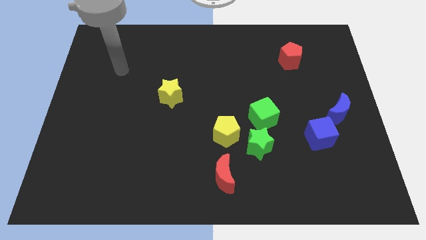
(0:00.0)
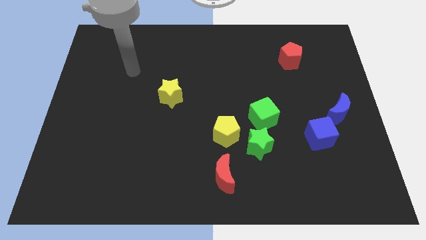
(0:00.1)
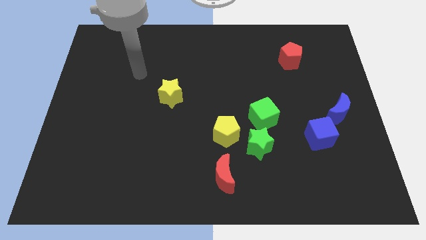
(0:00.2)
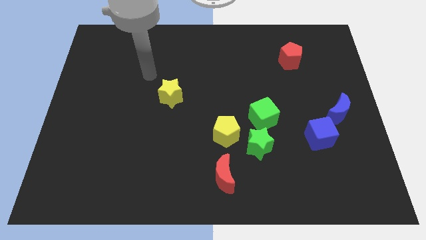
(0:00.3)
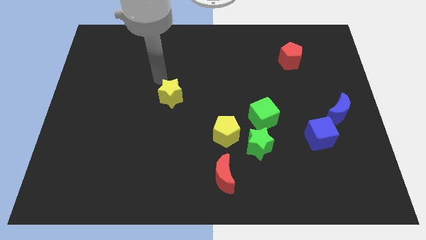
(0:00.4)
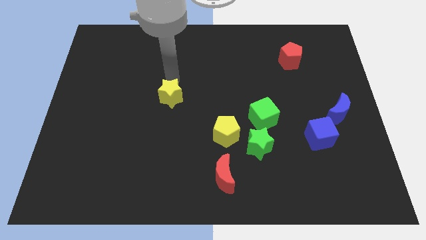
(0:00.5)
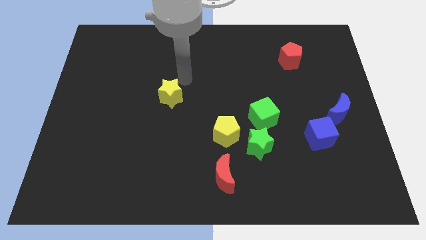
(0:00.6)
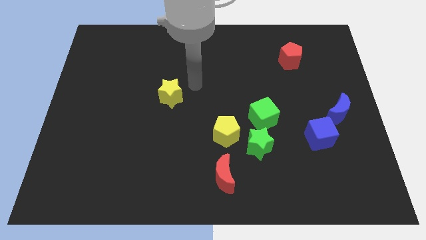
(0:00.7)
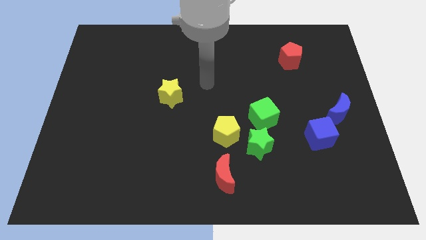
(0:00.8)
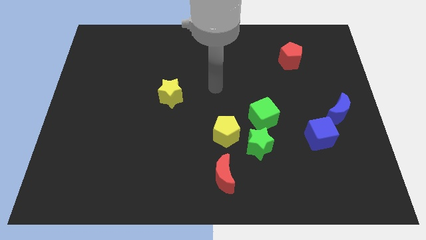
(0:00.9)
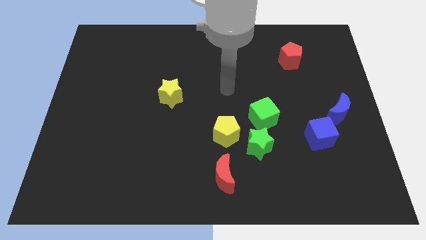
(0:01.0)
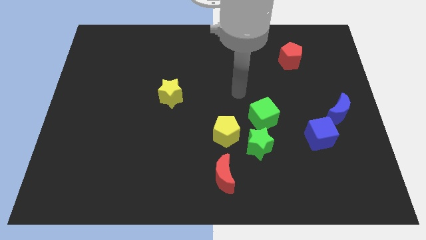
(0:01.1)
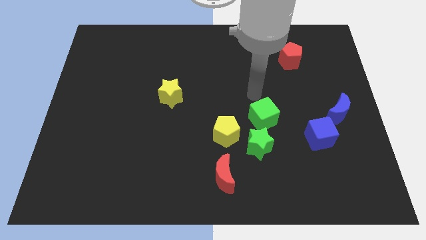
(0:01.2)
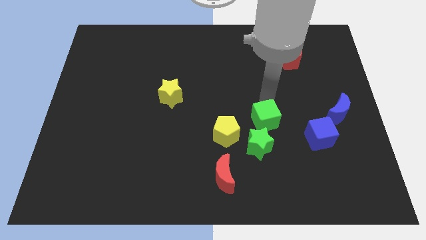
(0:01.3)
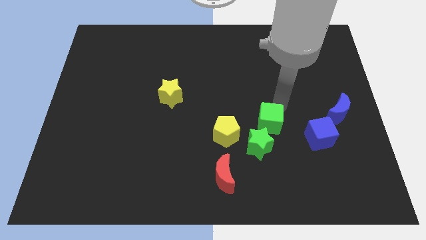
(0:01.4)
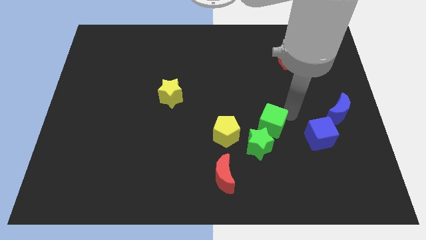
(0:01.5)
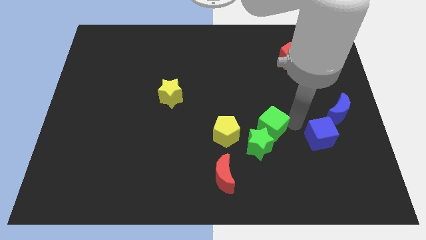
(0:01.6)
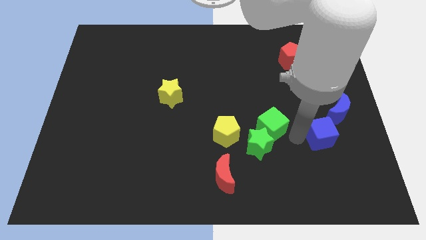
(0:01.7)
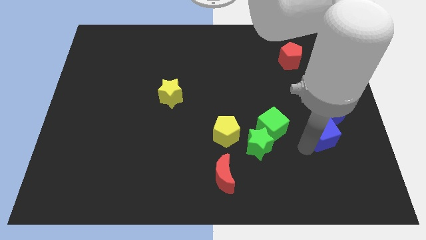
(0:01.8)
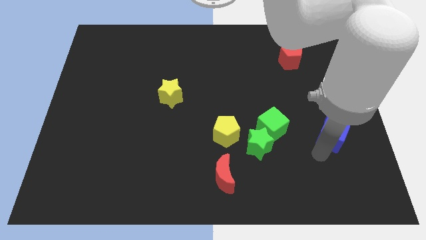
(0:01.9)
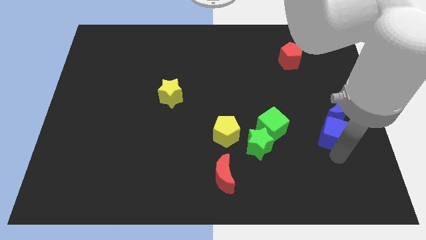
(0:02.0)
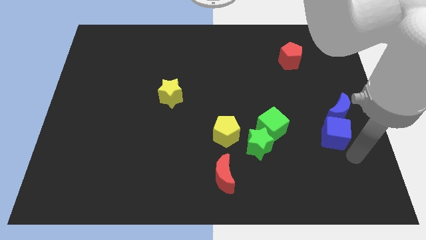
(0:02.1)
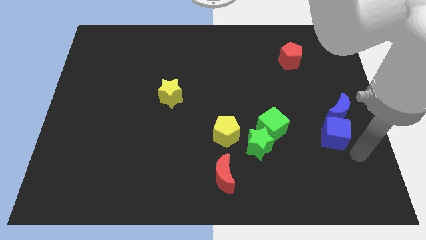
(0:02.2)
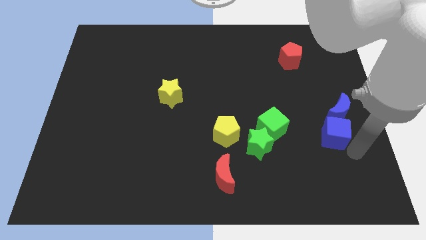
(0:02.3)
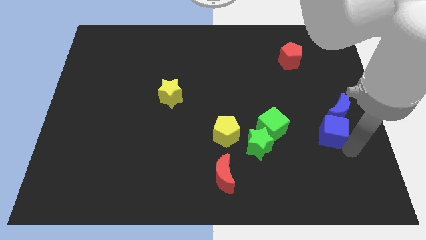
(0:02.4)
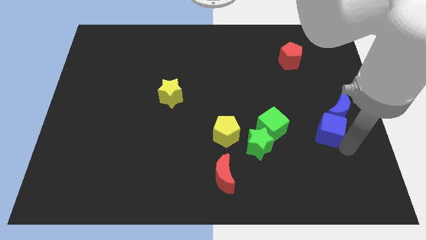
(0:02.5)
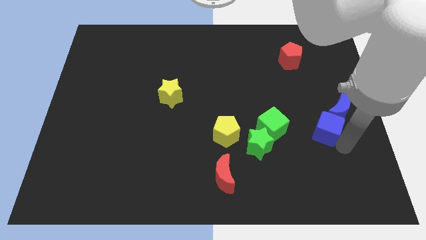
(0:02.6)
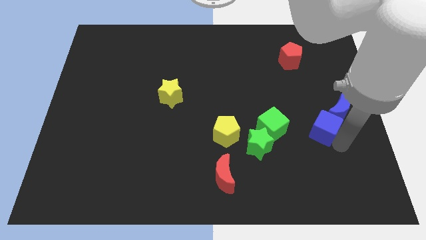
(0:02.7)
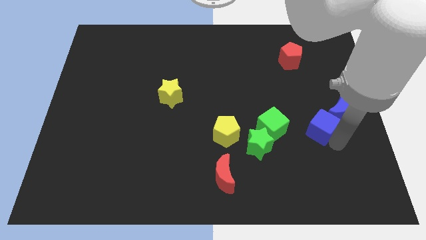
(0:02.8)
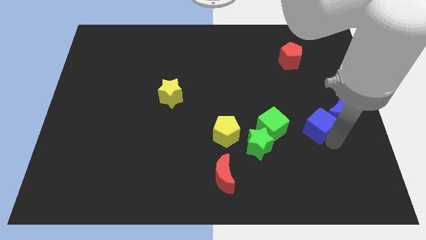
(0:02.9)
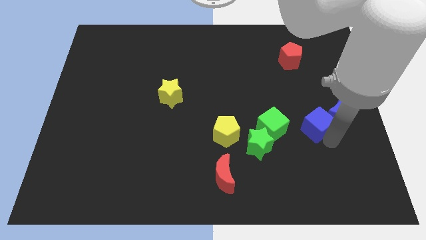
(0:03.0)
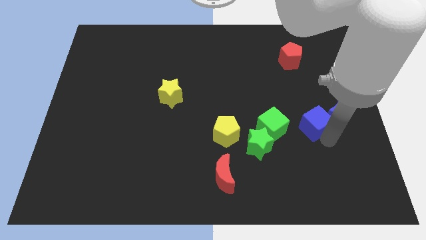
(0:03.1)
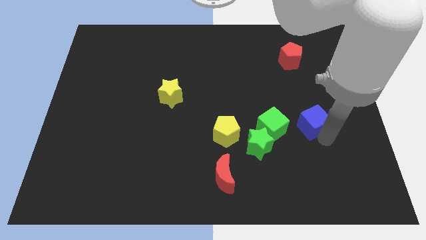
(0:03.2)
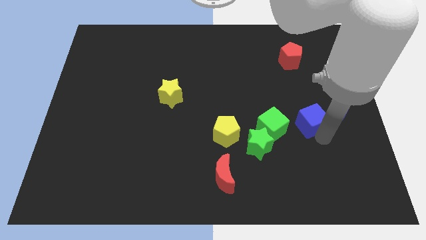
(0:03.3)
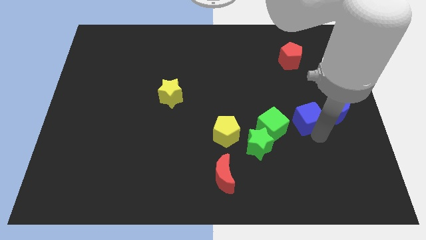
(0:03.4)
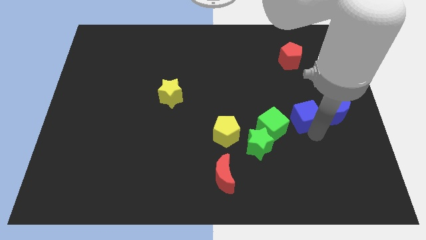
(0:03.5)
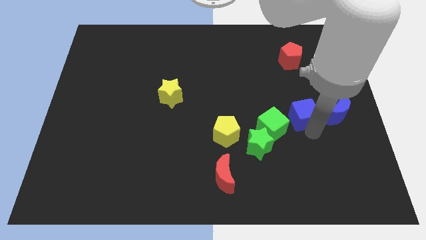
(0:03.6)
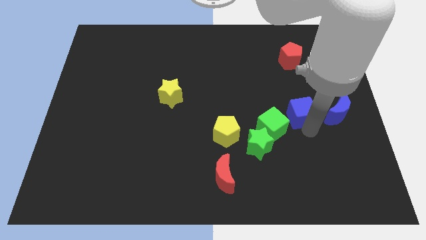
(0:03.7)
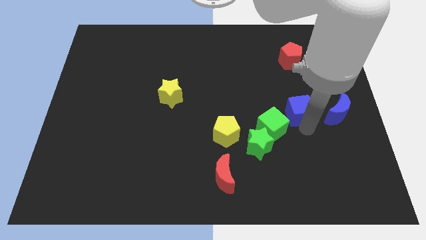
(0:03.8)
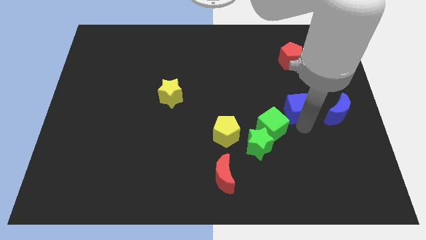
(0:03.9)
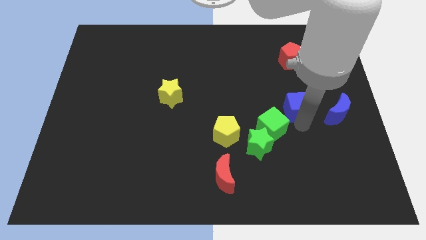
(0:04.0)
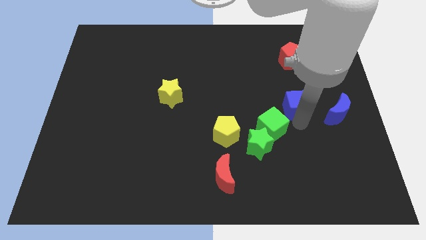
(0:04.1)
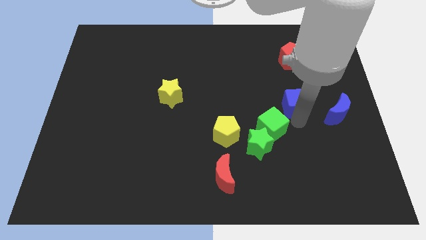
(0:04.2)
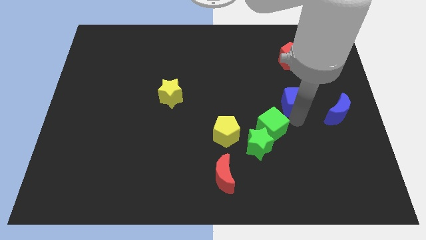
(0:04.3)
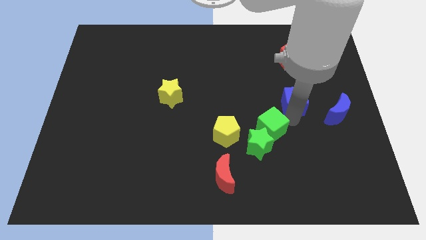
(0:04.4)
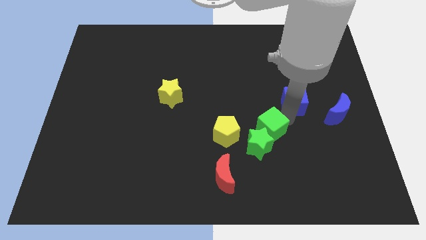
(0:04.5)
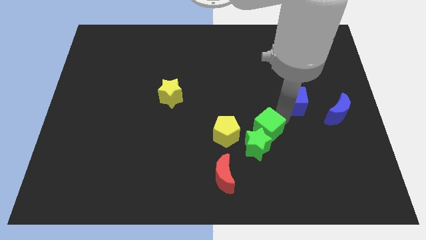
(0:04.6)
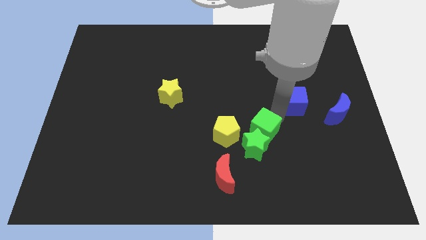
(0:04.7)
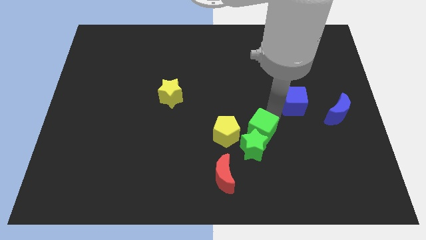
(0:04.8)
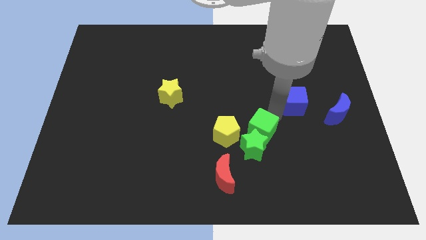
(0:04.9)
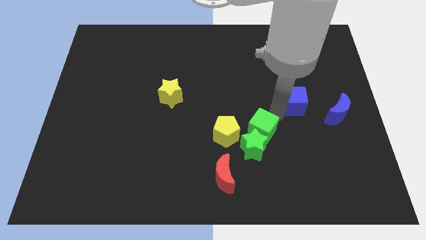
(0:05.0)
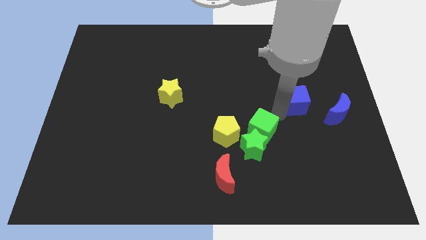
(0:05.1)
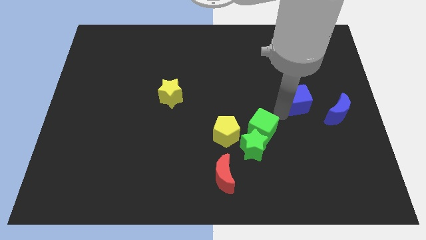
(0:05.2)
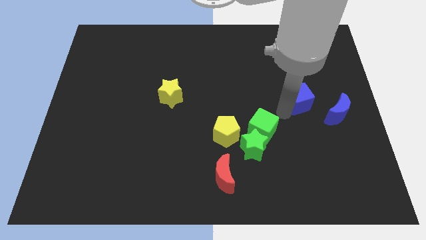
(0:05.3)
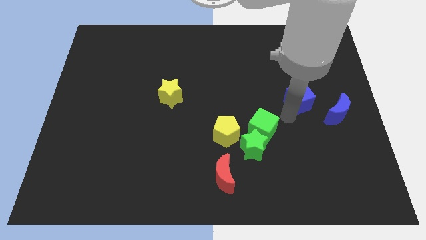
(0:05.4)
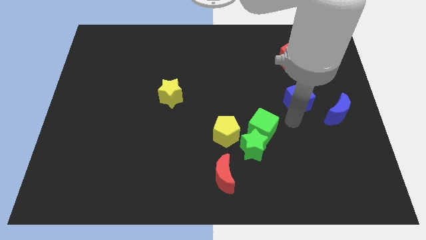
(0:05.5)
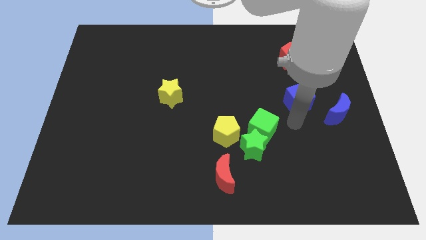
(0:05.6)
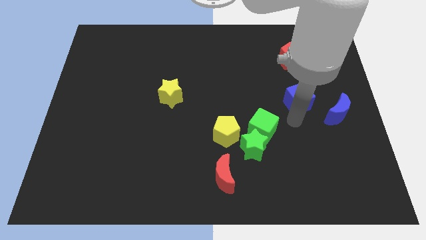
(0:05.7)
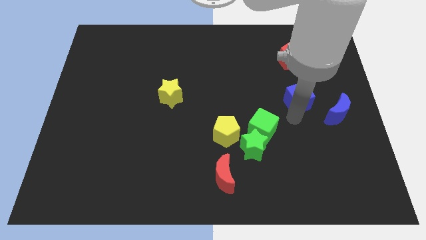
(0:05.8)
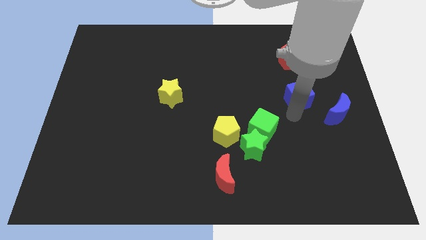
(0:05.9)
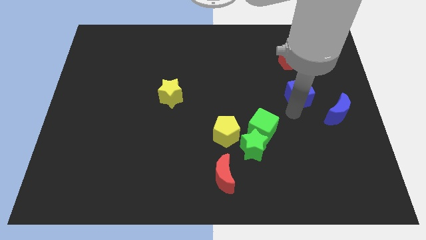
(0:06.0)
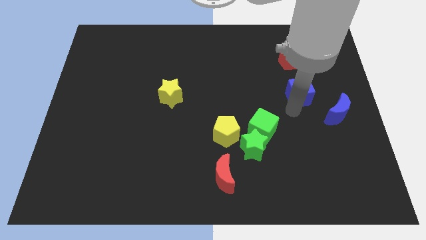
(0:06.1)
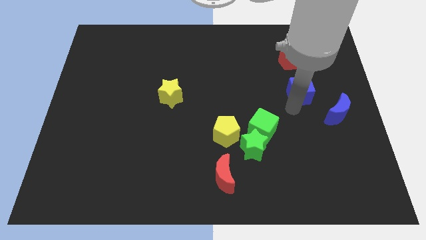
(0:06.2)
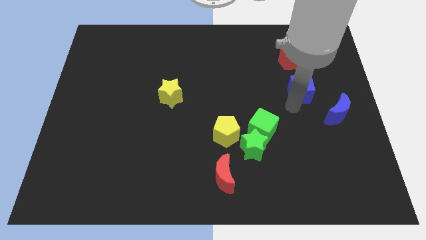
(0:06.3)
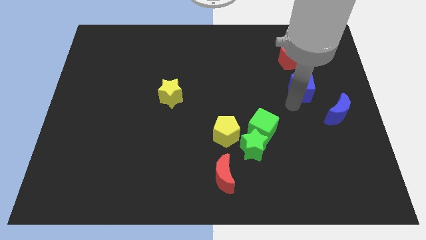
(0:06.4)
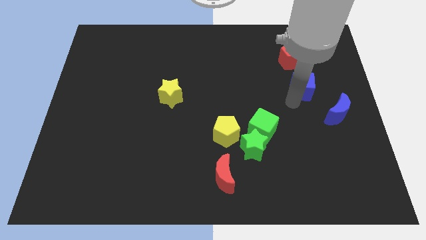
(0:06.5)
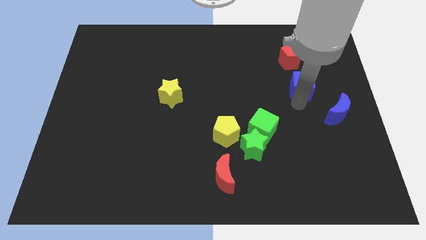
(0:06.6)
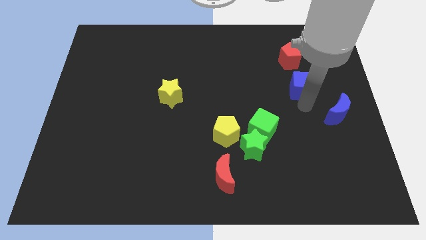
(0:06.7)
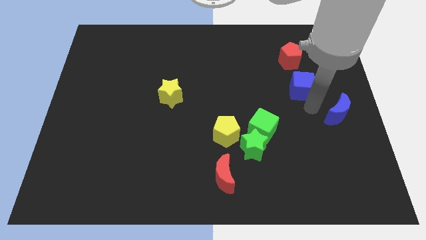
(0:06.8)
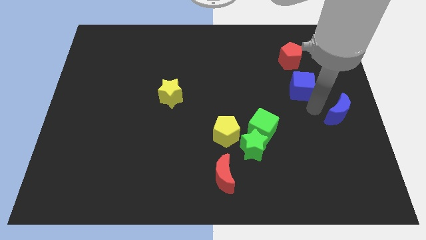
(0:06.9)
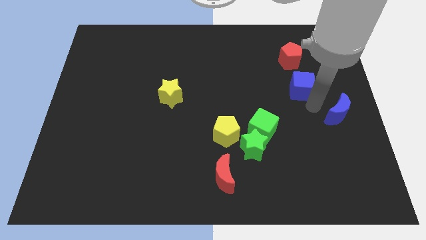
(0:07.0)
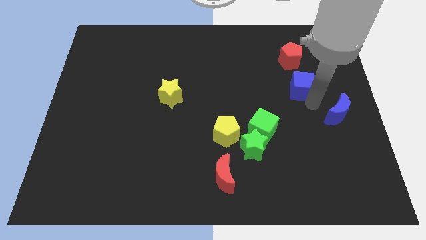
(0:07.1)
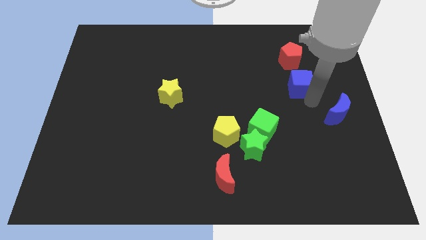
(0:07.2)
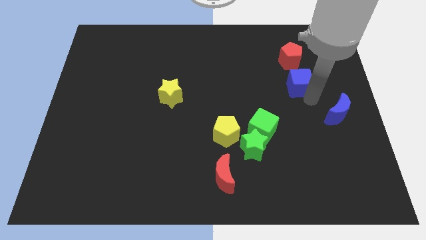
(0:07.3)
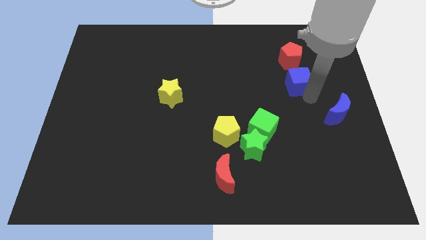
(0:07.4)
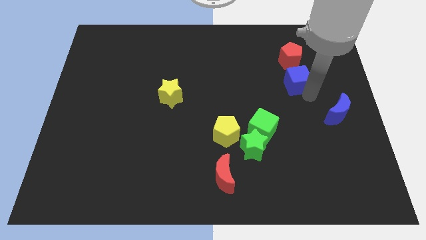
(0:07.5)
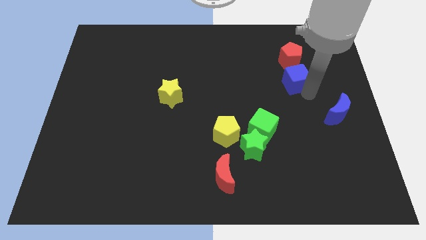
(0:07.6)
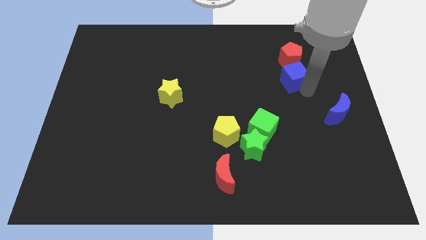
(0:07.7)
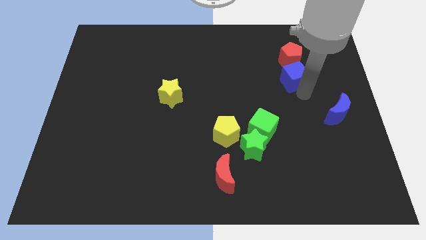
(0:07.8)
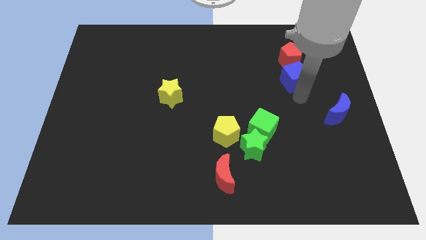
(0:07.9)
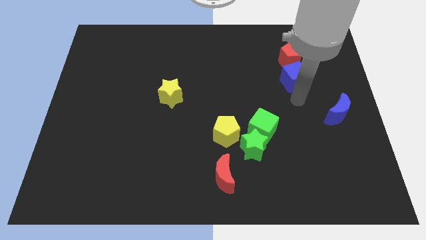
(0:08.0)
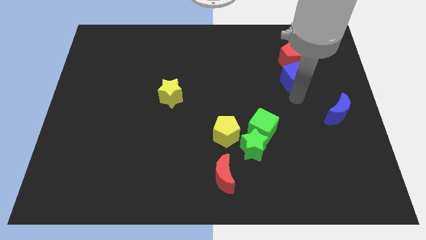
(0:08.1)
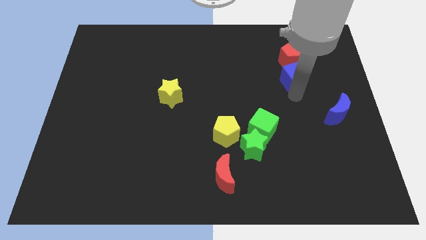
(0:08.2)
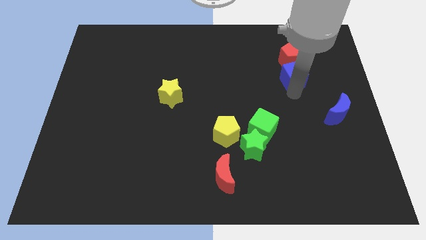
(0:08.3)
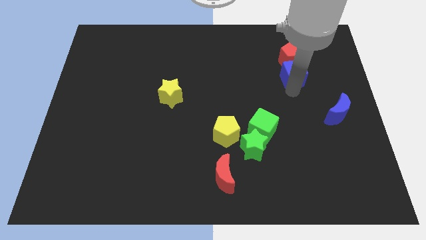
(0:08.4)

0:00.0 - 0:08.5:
put the blue cube close to the red pentagon
